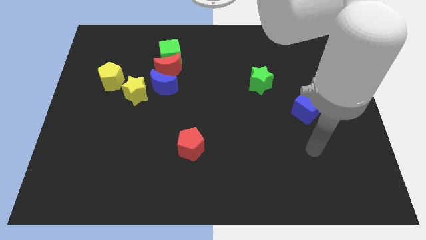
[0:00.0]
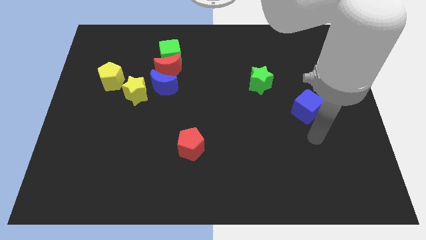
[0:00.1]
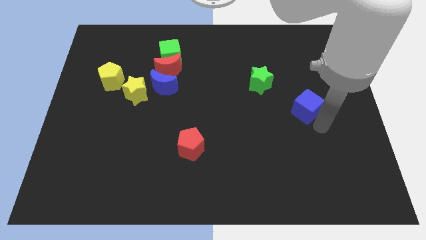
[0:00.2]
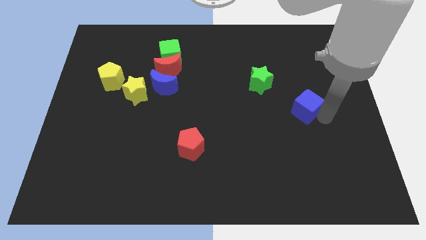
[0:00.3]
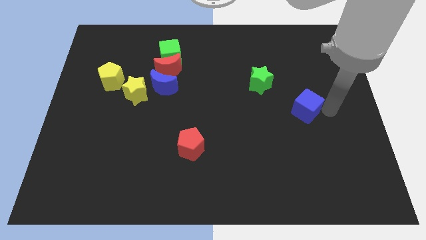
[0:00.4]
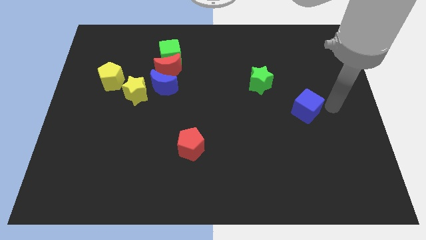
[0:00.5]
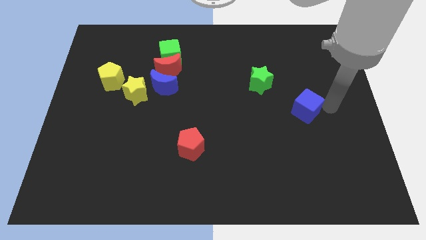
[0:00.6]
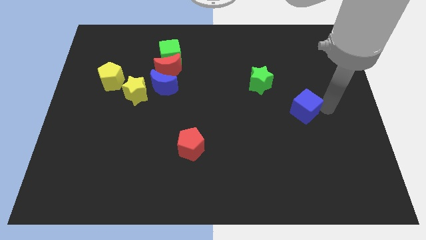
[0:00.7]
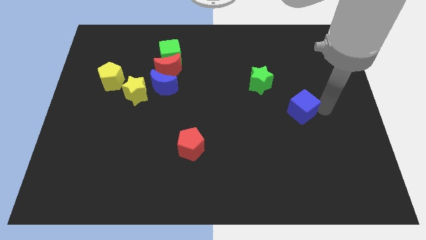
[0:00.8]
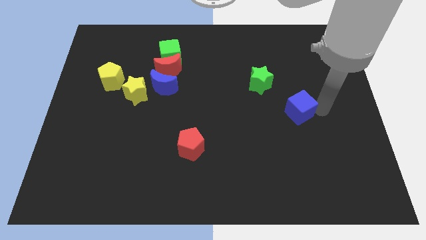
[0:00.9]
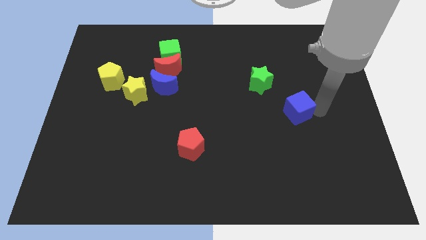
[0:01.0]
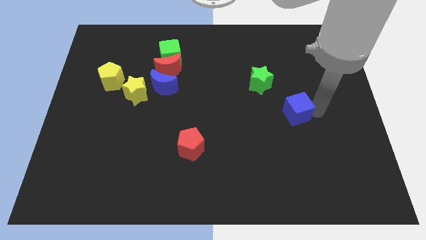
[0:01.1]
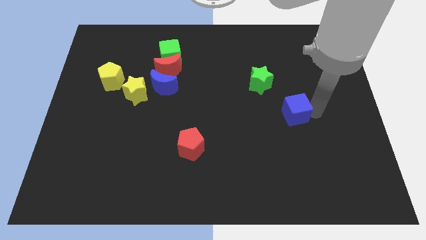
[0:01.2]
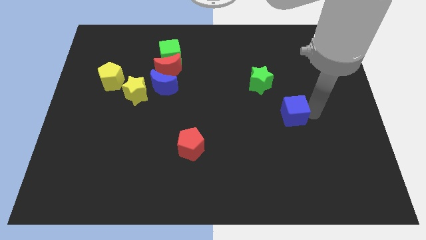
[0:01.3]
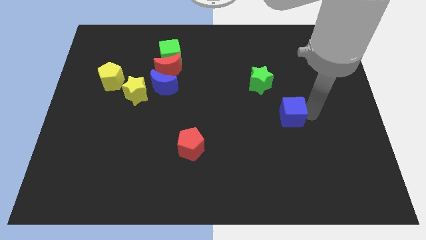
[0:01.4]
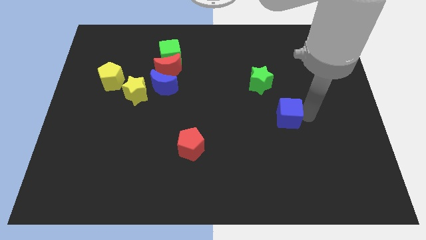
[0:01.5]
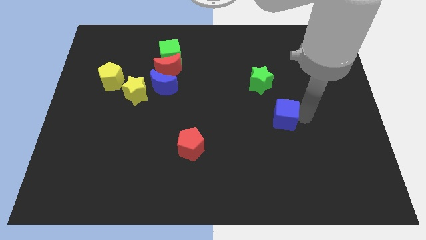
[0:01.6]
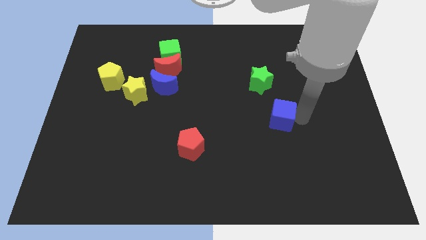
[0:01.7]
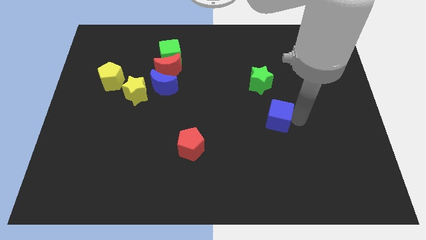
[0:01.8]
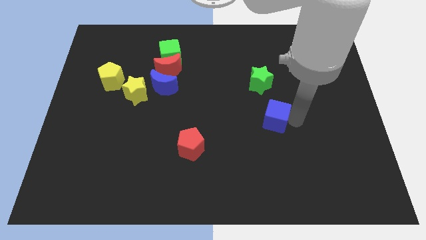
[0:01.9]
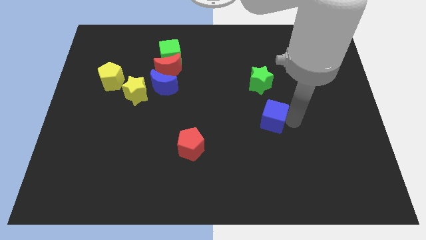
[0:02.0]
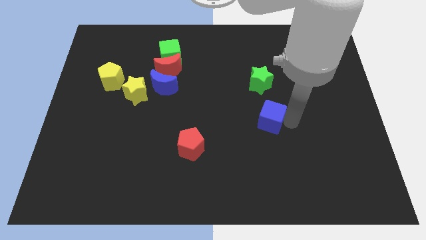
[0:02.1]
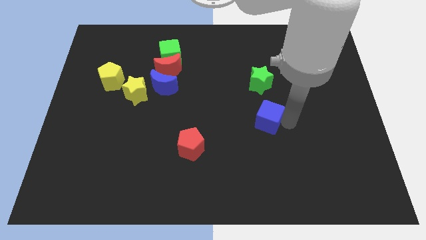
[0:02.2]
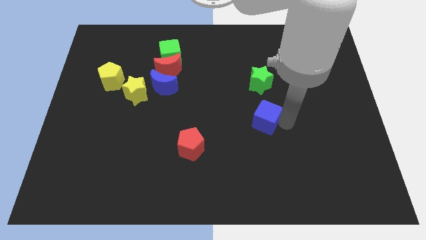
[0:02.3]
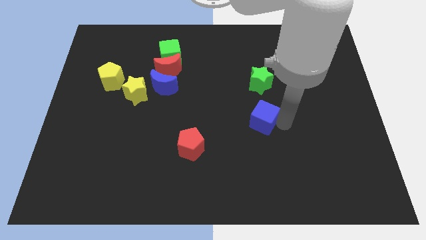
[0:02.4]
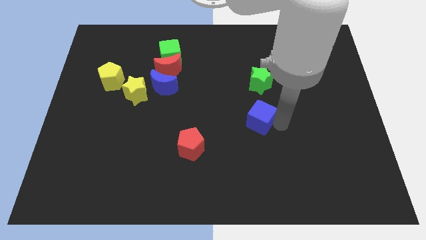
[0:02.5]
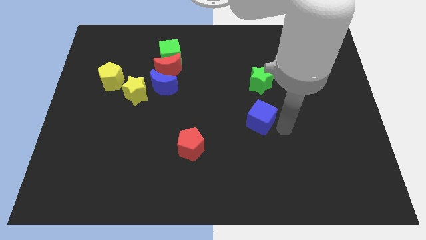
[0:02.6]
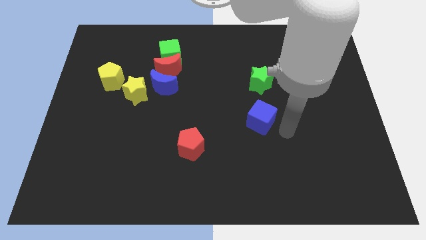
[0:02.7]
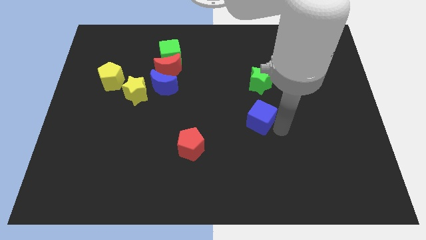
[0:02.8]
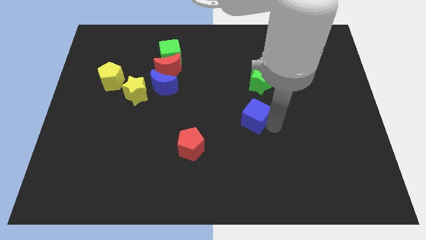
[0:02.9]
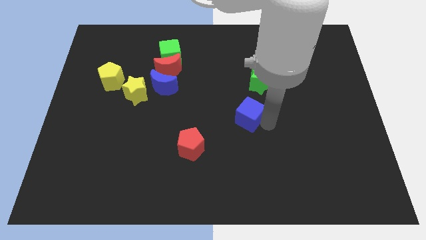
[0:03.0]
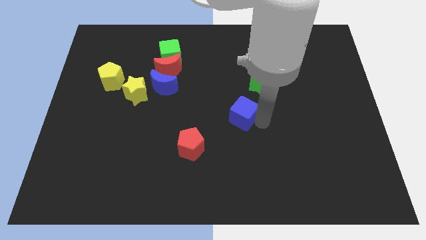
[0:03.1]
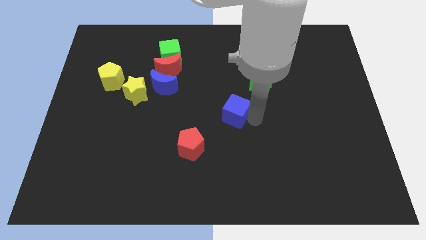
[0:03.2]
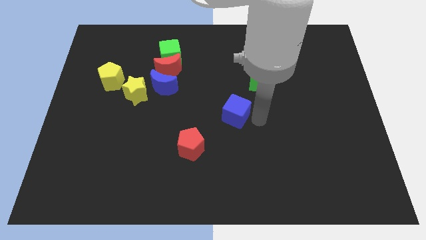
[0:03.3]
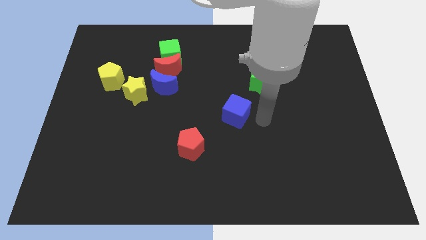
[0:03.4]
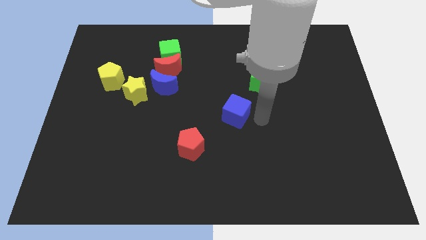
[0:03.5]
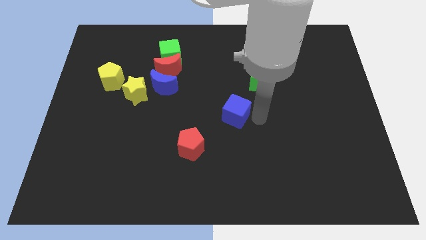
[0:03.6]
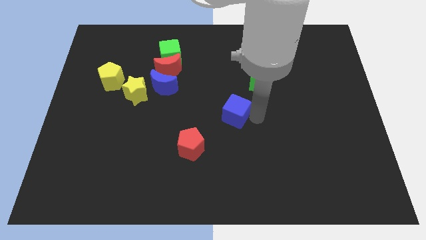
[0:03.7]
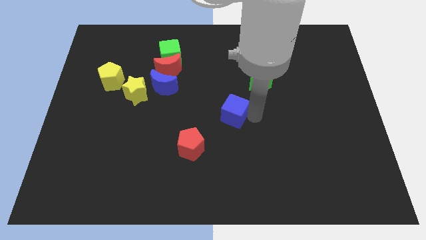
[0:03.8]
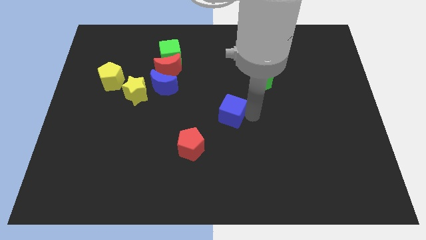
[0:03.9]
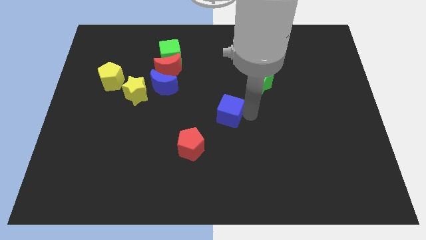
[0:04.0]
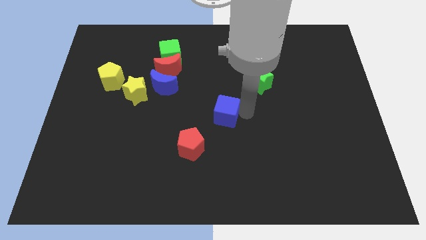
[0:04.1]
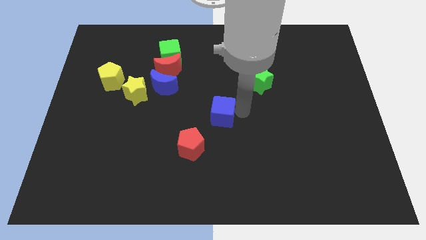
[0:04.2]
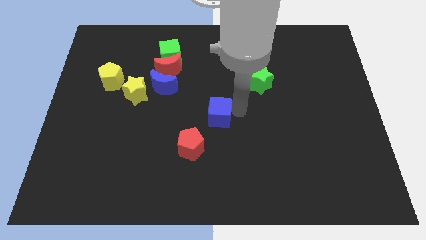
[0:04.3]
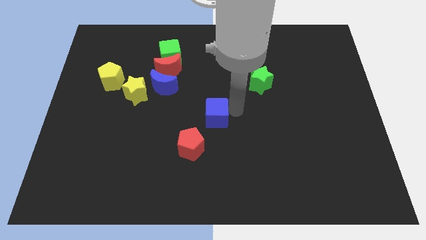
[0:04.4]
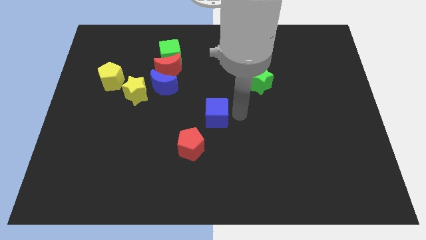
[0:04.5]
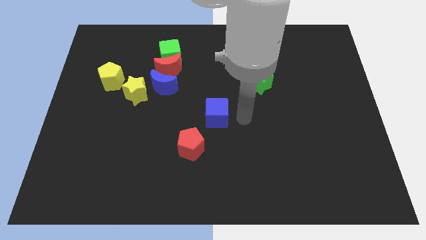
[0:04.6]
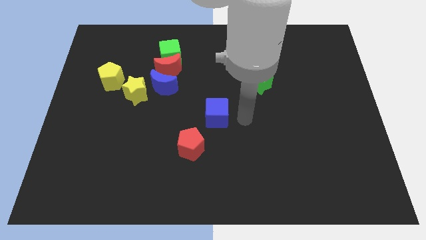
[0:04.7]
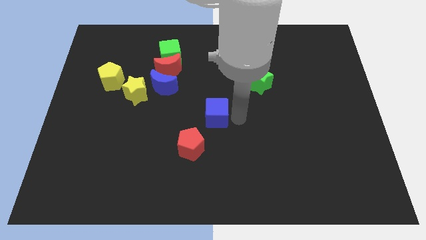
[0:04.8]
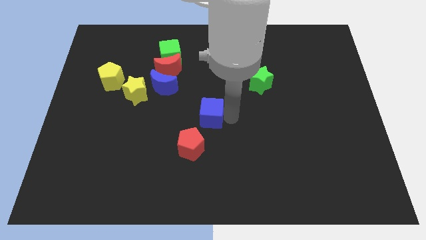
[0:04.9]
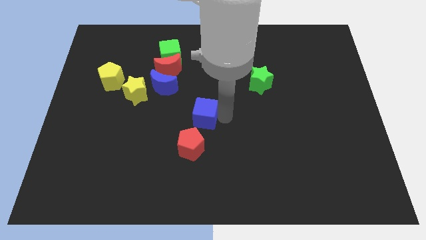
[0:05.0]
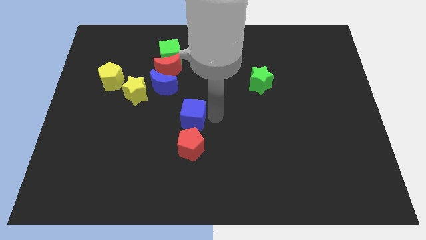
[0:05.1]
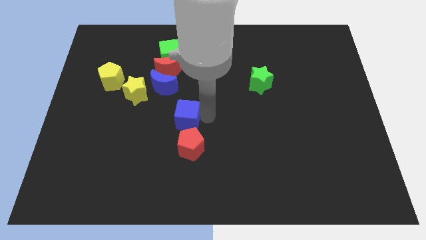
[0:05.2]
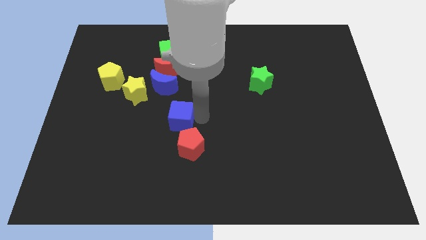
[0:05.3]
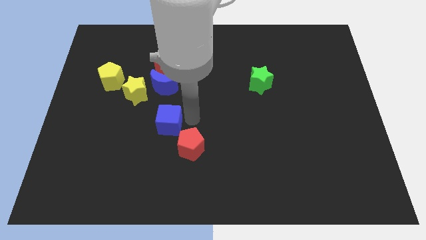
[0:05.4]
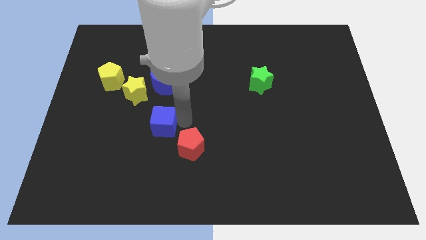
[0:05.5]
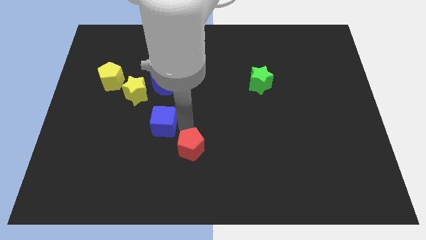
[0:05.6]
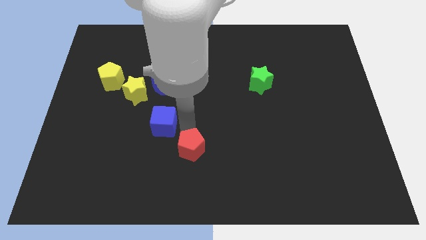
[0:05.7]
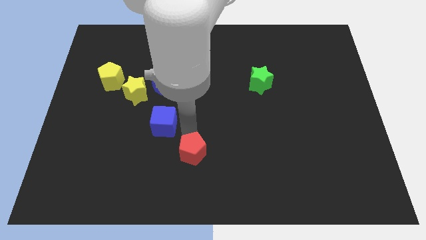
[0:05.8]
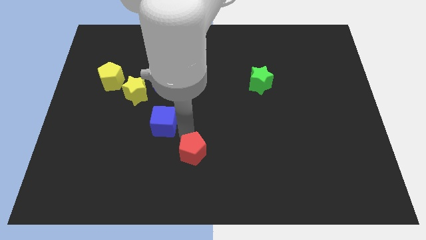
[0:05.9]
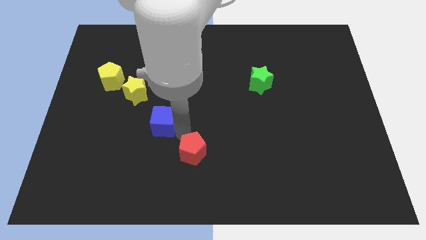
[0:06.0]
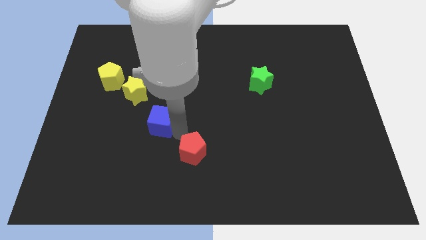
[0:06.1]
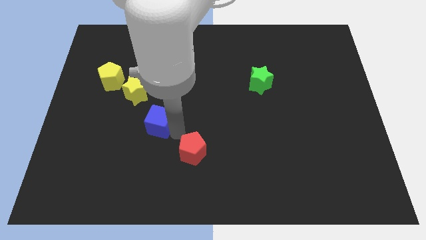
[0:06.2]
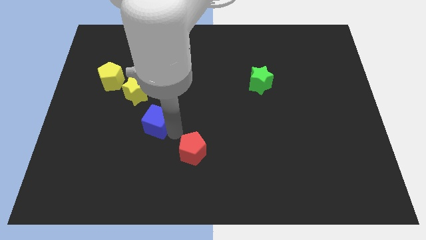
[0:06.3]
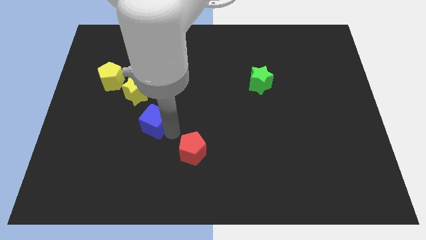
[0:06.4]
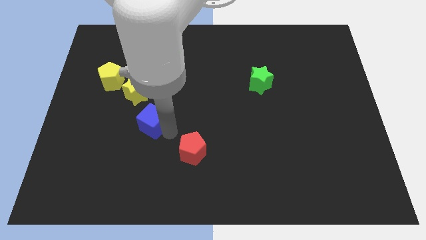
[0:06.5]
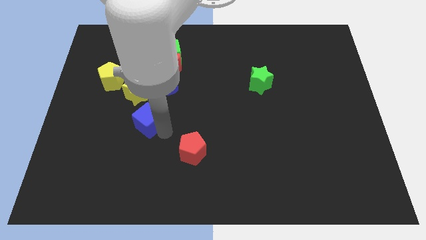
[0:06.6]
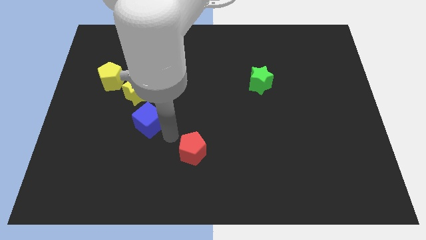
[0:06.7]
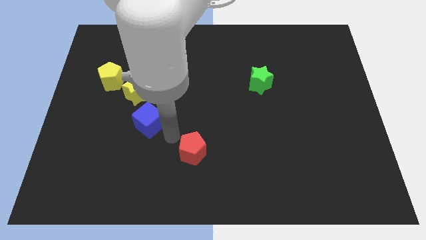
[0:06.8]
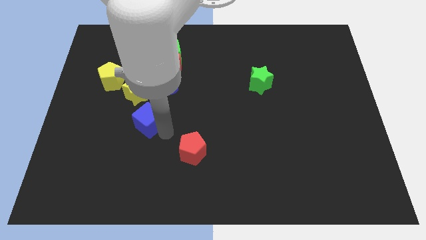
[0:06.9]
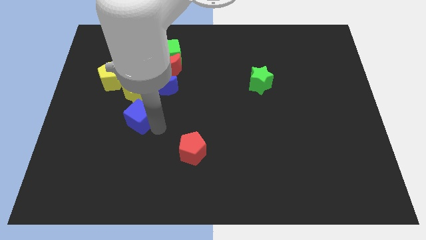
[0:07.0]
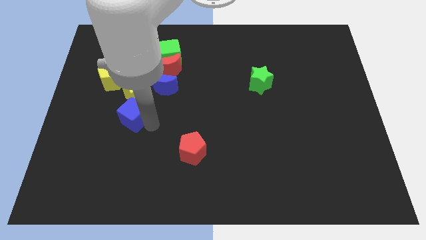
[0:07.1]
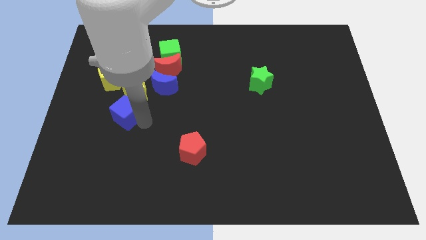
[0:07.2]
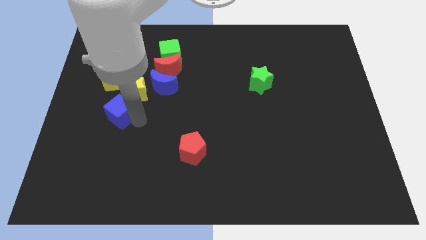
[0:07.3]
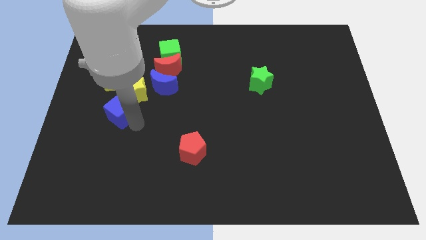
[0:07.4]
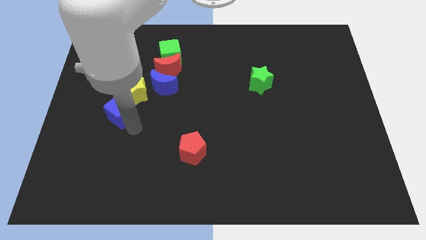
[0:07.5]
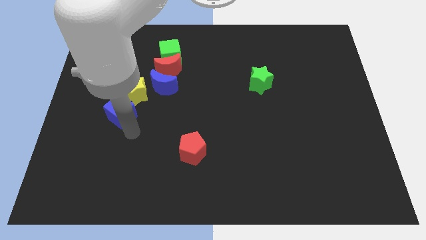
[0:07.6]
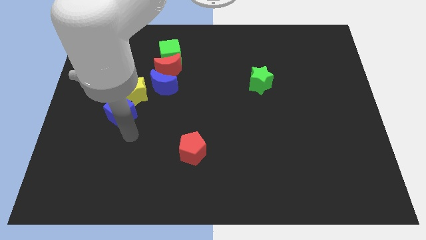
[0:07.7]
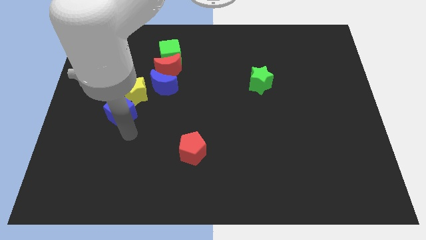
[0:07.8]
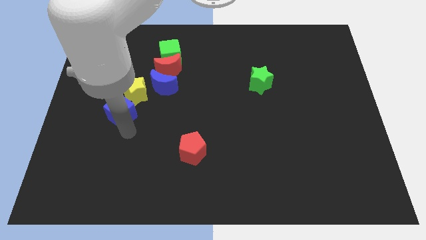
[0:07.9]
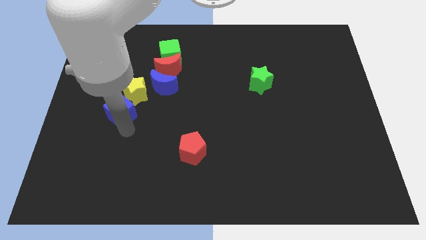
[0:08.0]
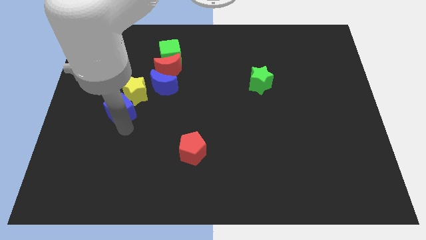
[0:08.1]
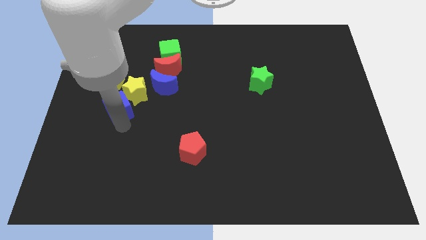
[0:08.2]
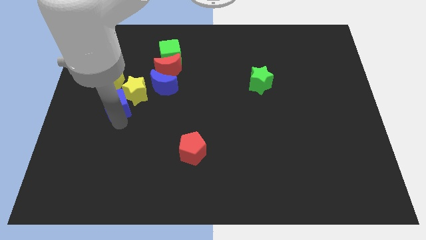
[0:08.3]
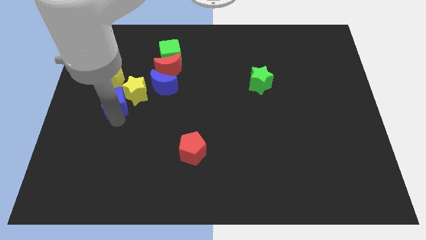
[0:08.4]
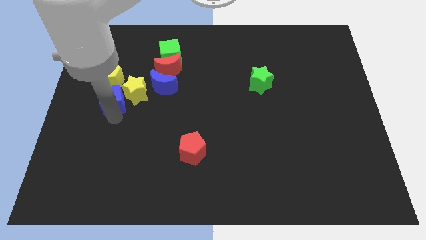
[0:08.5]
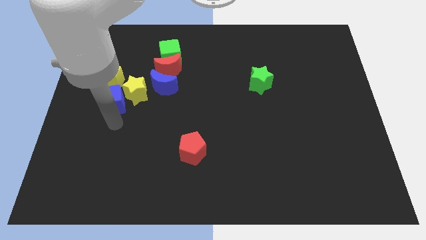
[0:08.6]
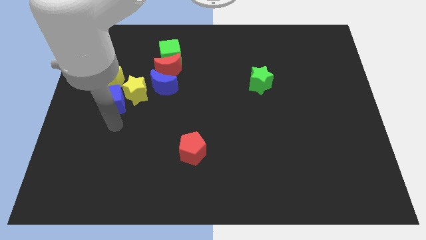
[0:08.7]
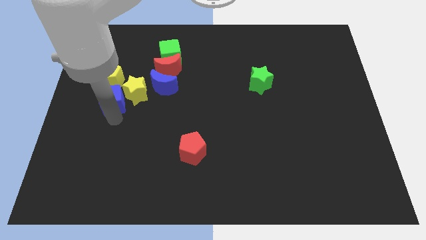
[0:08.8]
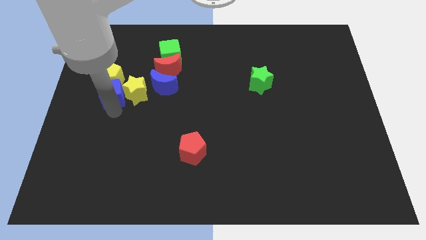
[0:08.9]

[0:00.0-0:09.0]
put the blue cube close to the yellow pentagon
